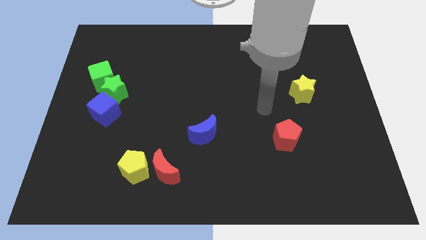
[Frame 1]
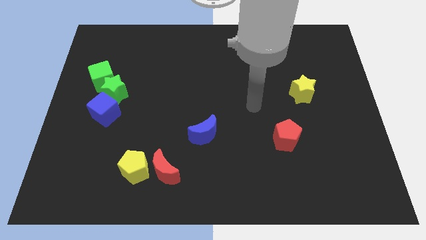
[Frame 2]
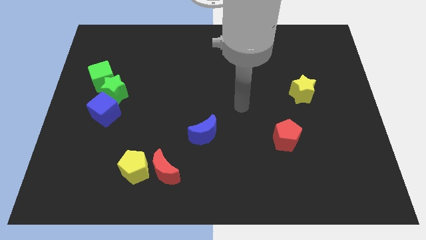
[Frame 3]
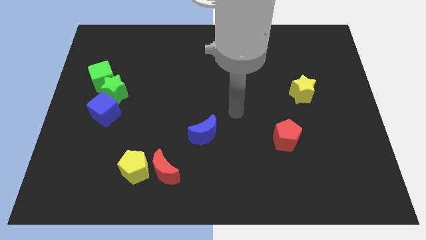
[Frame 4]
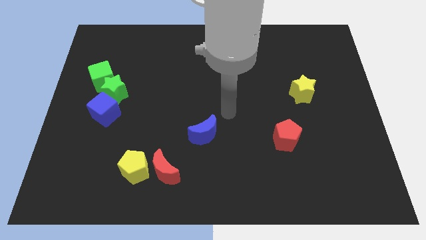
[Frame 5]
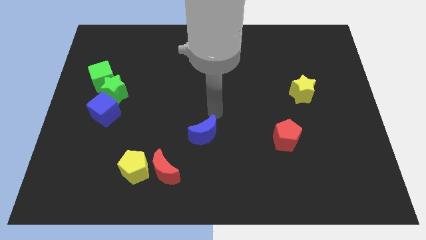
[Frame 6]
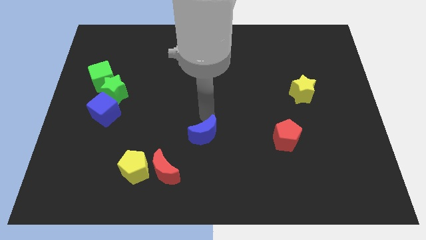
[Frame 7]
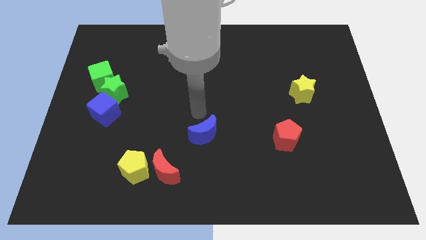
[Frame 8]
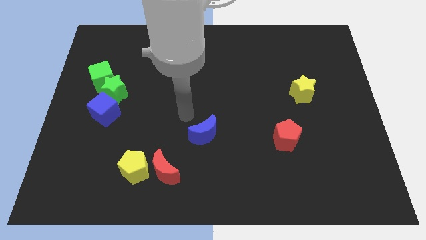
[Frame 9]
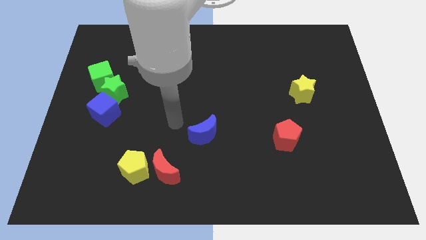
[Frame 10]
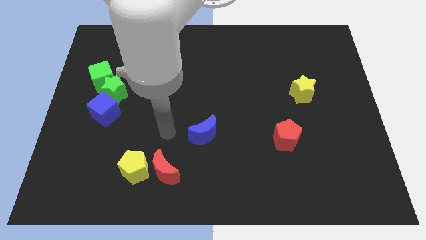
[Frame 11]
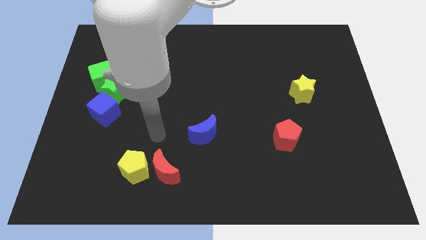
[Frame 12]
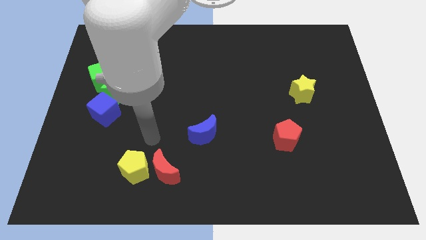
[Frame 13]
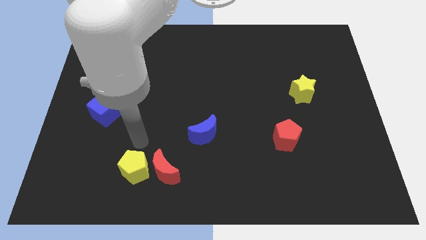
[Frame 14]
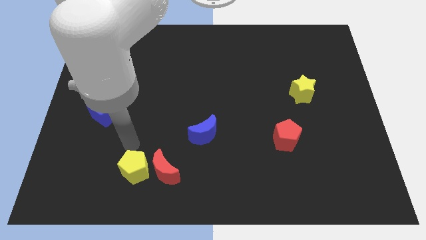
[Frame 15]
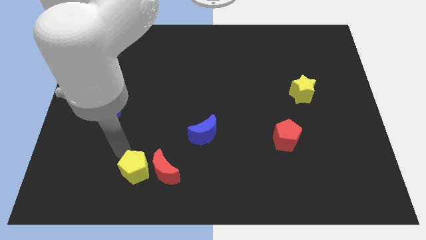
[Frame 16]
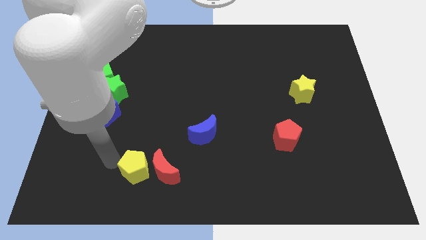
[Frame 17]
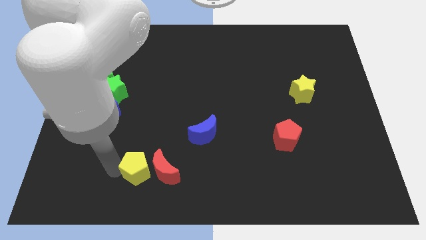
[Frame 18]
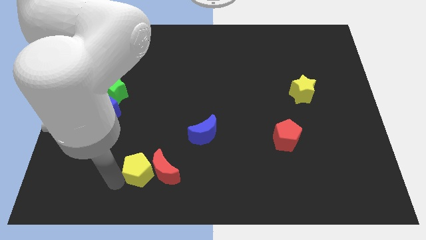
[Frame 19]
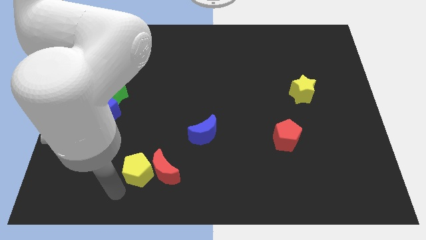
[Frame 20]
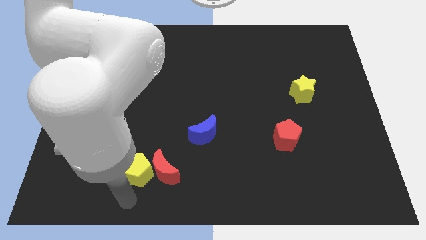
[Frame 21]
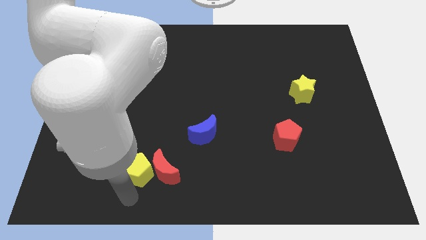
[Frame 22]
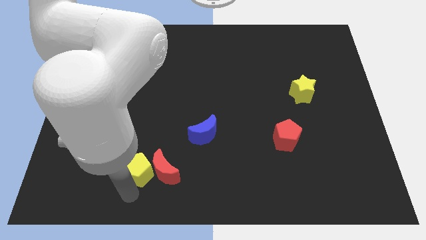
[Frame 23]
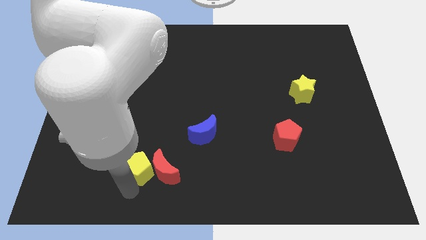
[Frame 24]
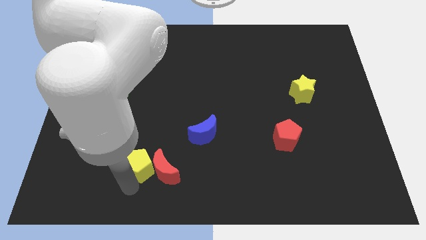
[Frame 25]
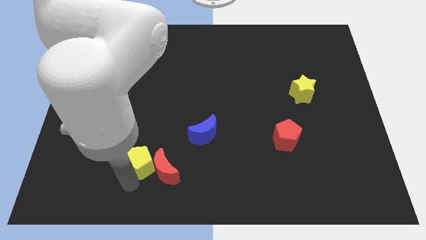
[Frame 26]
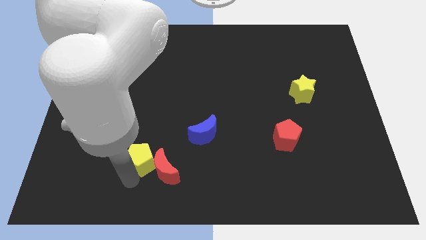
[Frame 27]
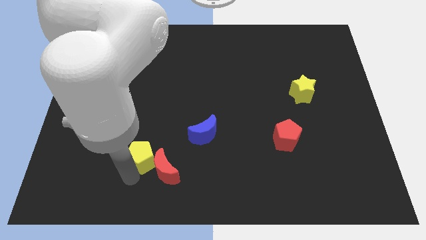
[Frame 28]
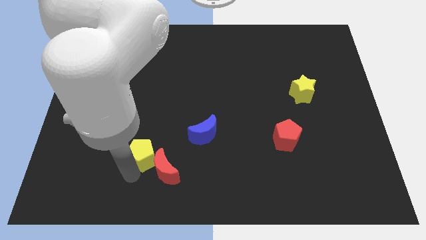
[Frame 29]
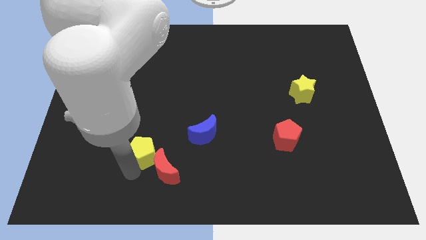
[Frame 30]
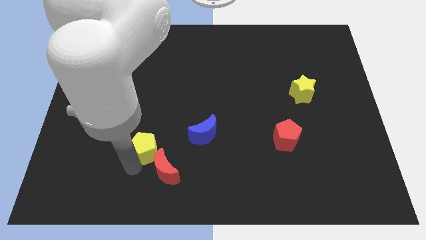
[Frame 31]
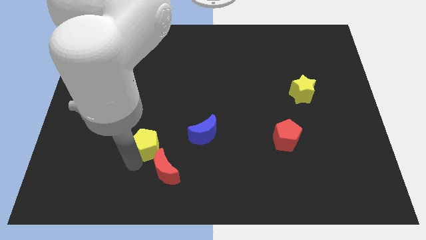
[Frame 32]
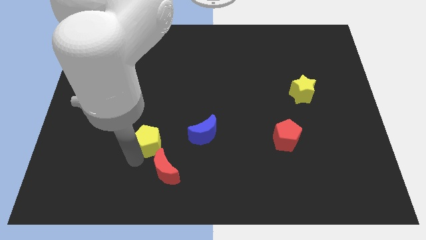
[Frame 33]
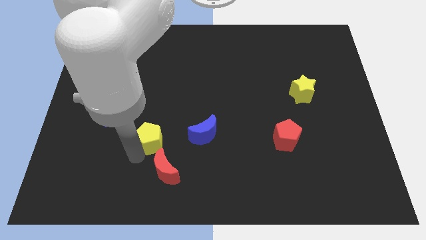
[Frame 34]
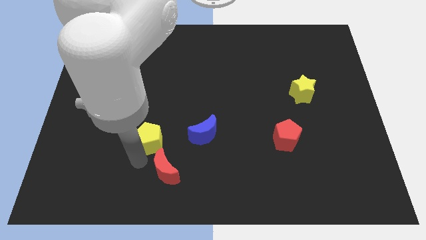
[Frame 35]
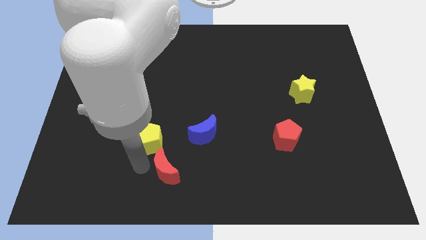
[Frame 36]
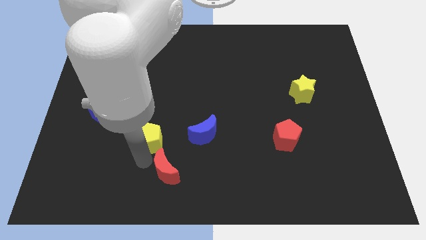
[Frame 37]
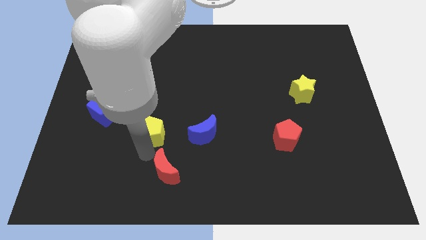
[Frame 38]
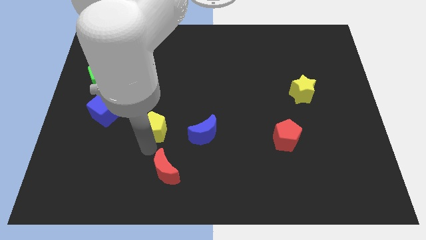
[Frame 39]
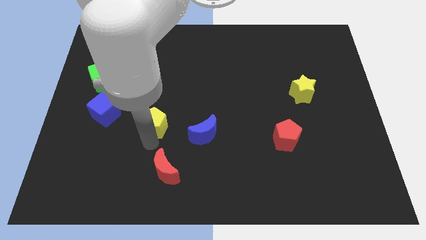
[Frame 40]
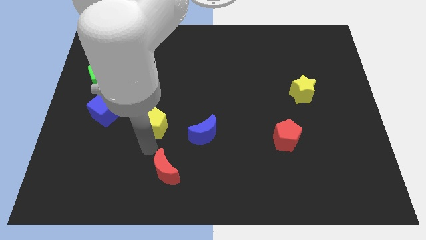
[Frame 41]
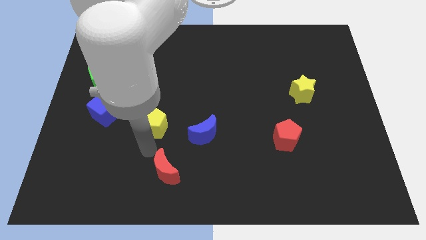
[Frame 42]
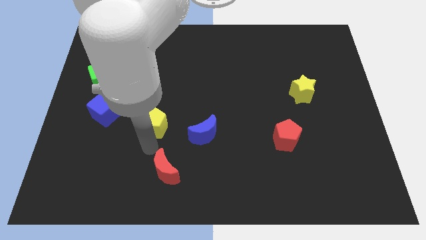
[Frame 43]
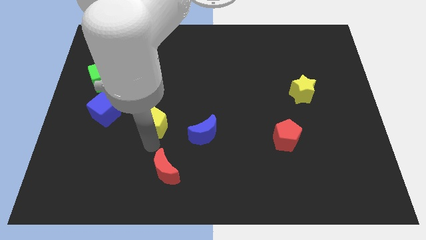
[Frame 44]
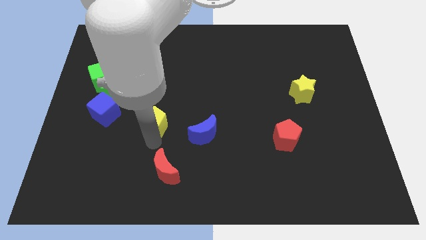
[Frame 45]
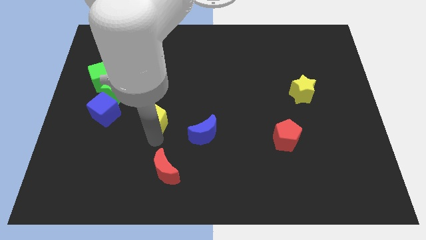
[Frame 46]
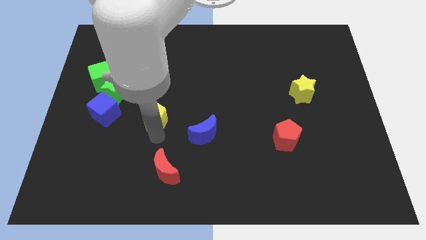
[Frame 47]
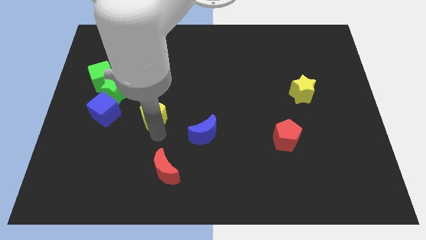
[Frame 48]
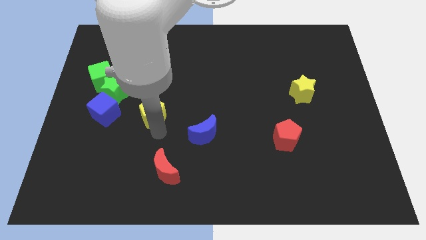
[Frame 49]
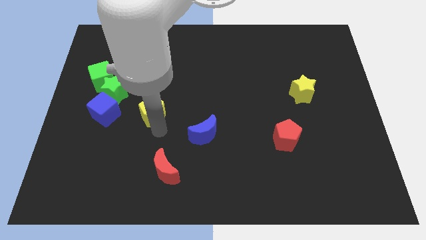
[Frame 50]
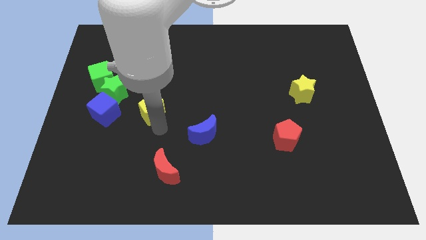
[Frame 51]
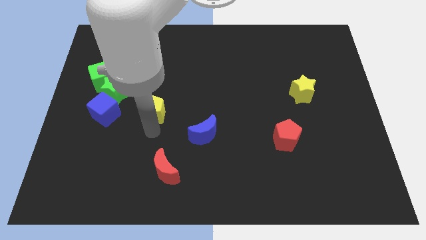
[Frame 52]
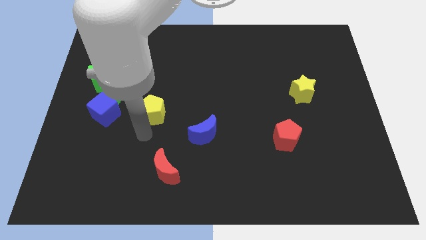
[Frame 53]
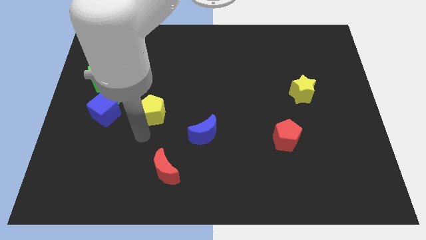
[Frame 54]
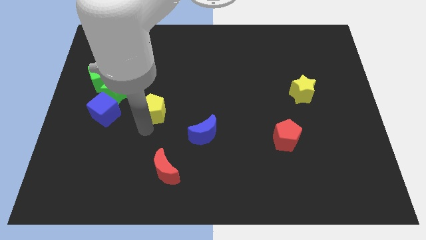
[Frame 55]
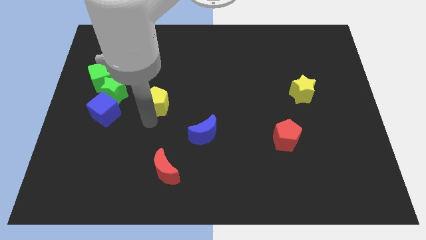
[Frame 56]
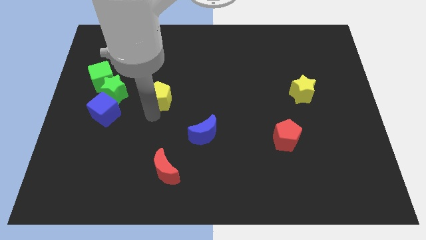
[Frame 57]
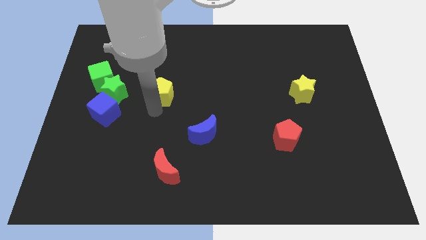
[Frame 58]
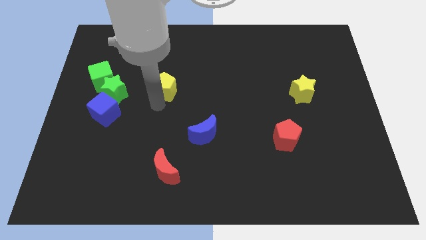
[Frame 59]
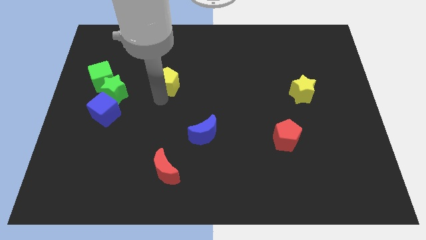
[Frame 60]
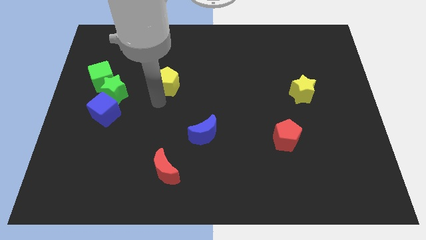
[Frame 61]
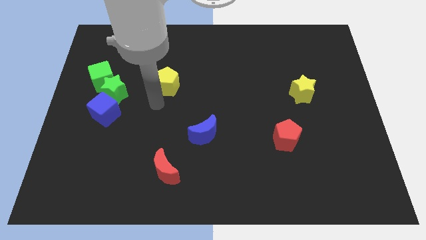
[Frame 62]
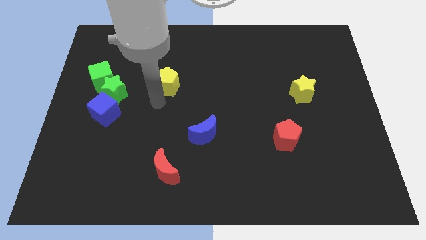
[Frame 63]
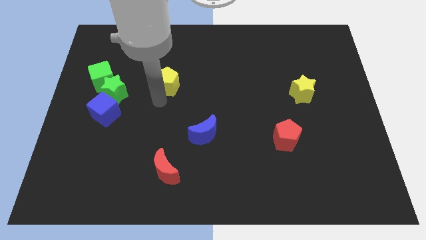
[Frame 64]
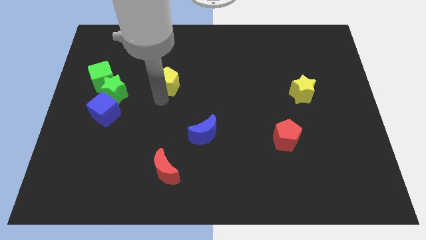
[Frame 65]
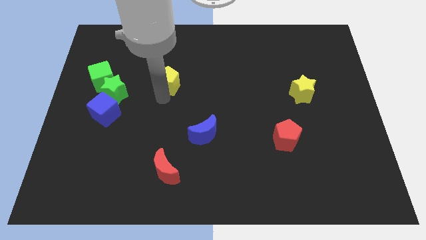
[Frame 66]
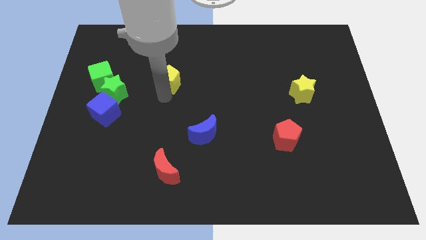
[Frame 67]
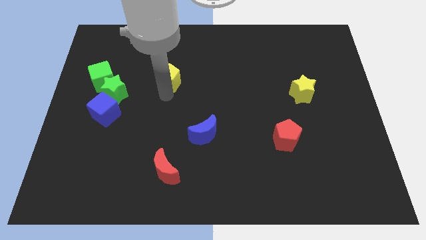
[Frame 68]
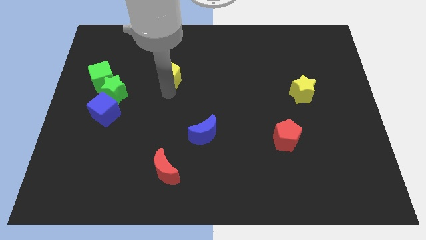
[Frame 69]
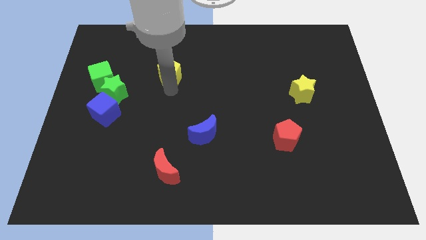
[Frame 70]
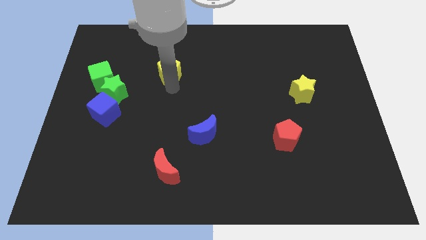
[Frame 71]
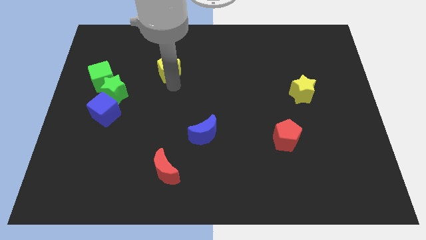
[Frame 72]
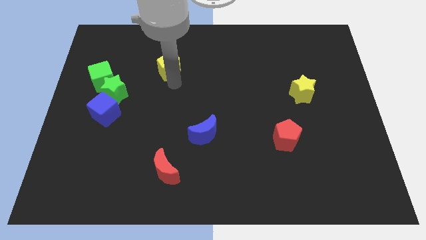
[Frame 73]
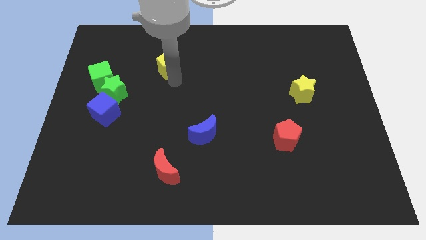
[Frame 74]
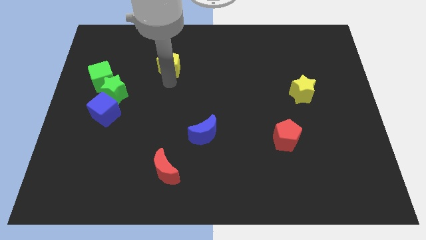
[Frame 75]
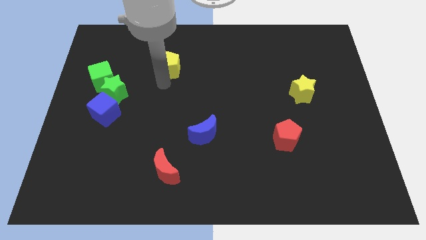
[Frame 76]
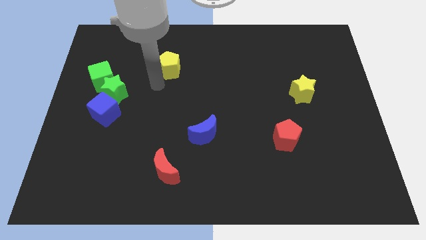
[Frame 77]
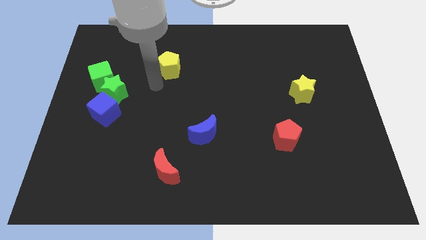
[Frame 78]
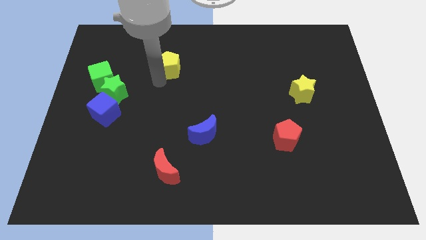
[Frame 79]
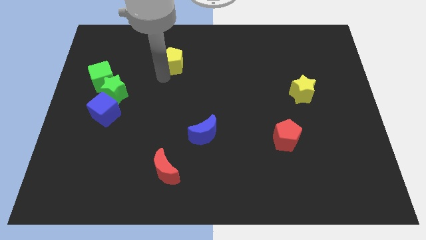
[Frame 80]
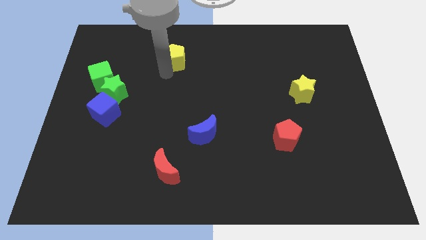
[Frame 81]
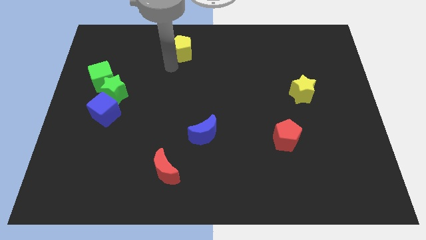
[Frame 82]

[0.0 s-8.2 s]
push the yellow pentagon to the towards your base
